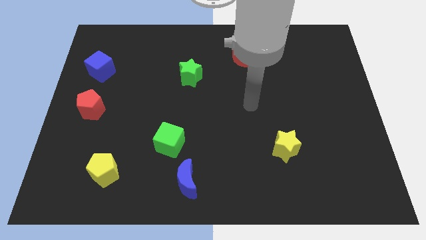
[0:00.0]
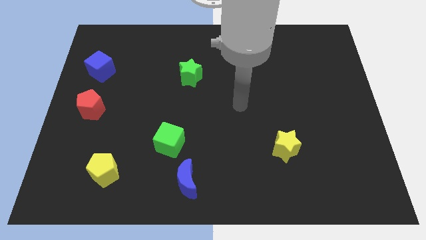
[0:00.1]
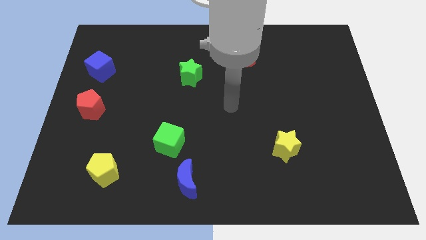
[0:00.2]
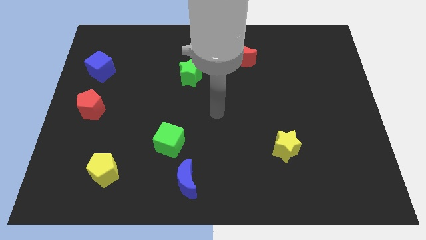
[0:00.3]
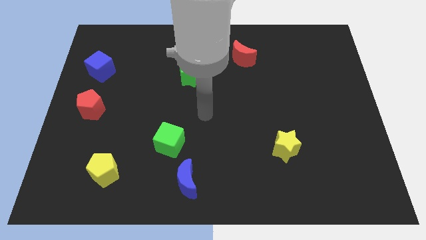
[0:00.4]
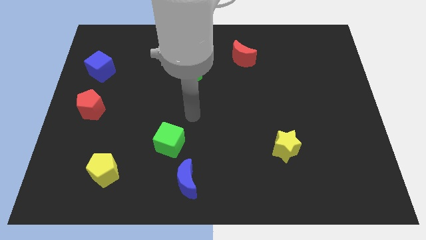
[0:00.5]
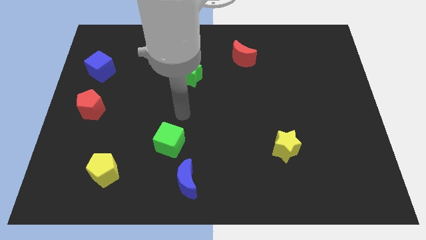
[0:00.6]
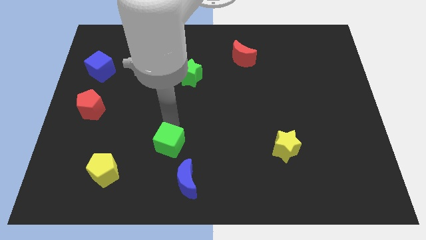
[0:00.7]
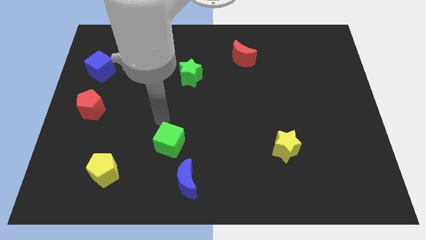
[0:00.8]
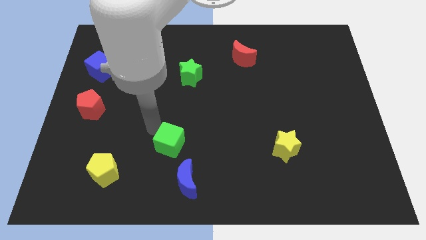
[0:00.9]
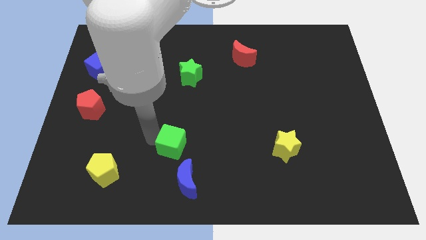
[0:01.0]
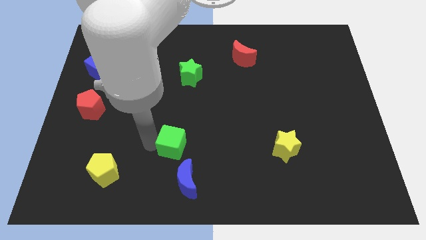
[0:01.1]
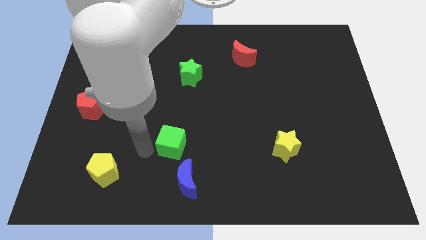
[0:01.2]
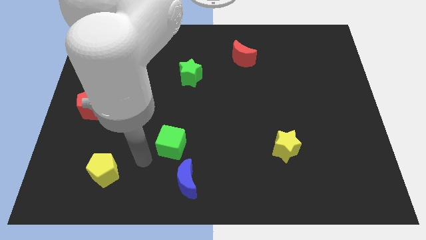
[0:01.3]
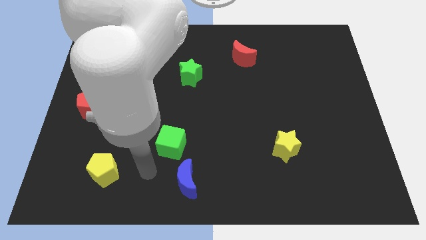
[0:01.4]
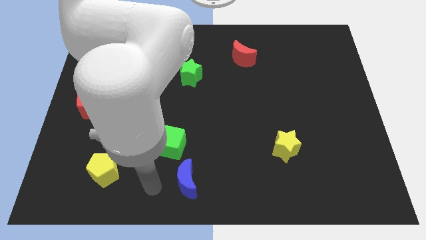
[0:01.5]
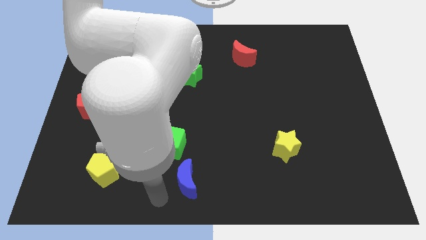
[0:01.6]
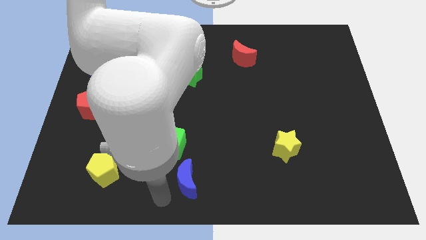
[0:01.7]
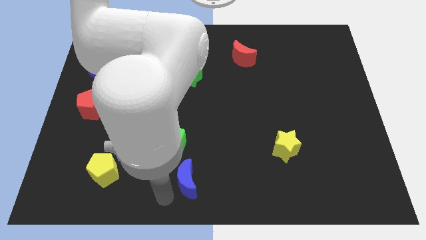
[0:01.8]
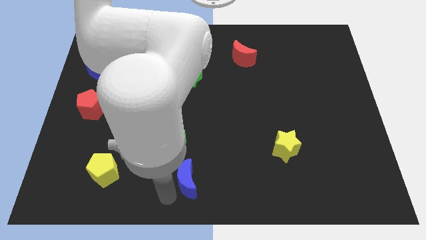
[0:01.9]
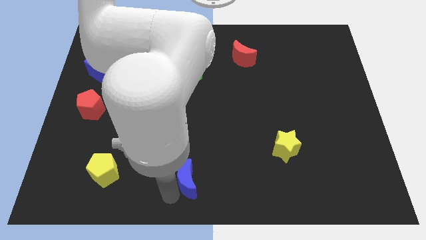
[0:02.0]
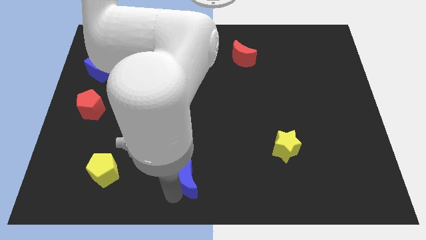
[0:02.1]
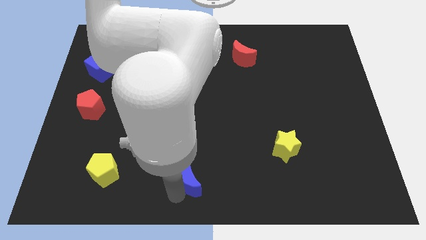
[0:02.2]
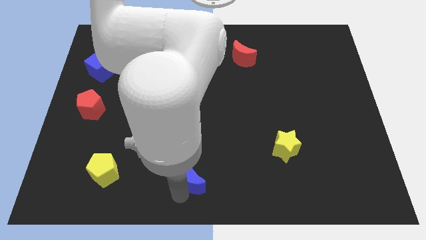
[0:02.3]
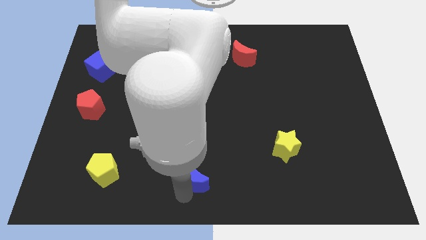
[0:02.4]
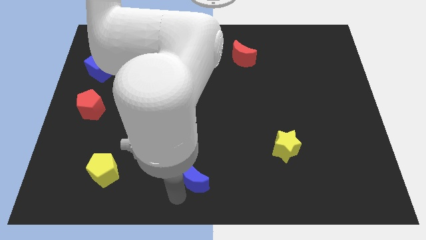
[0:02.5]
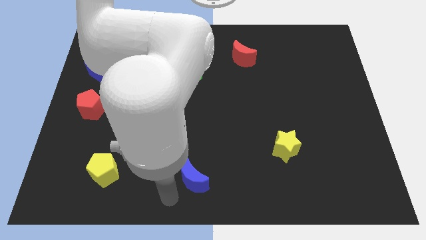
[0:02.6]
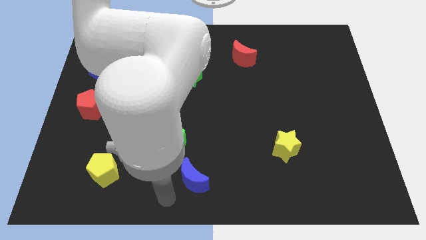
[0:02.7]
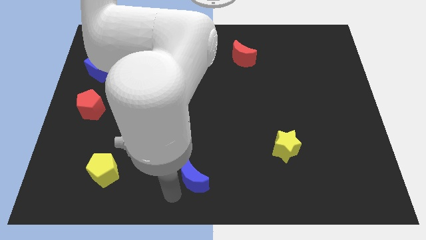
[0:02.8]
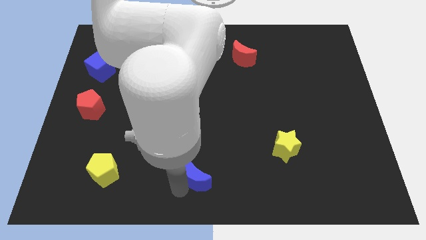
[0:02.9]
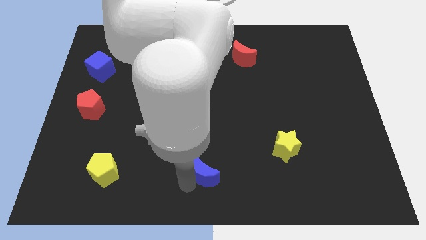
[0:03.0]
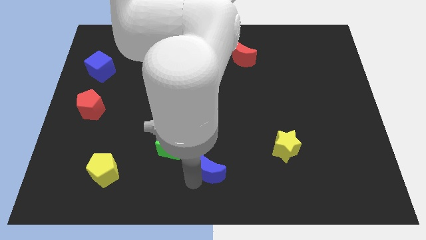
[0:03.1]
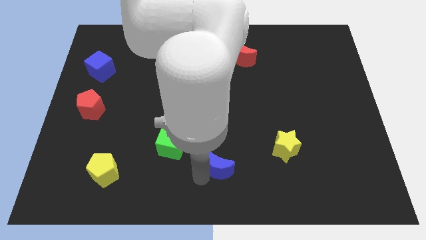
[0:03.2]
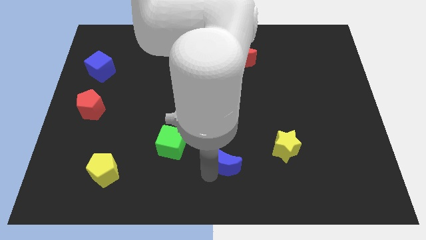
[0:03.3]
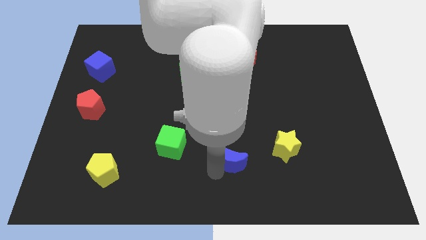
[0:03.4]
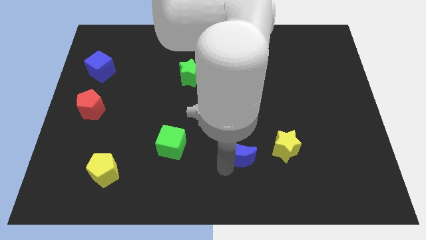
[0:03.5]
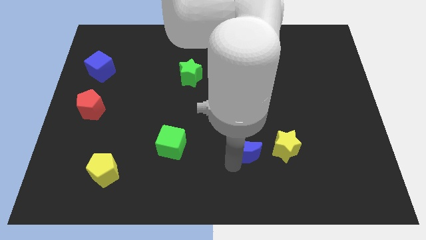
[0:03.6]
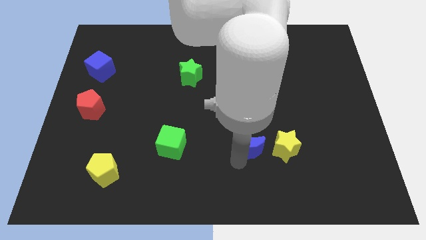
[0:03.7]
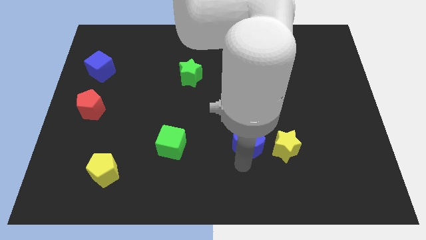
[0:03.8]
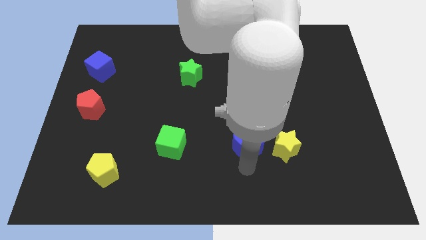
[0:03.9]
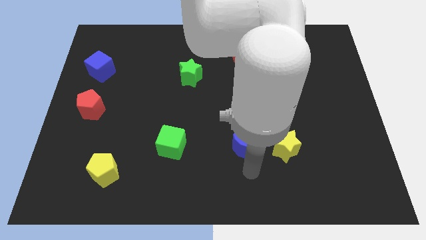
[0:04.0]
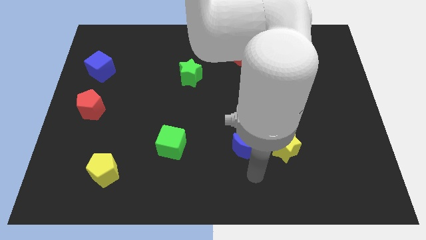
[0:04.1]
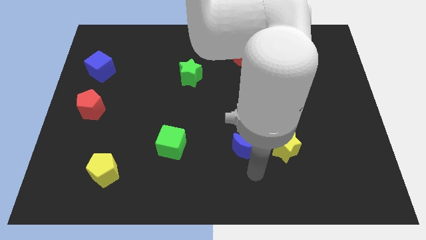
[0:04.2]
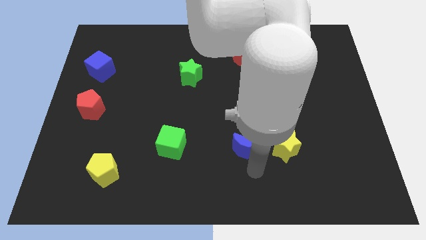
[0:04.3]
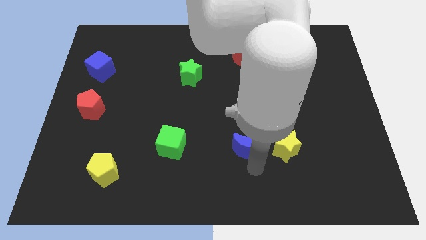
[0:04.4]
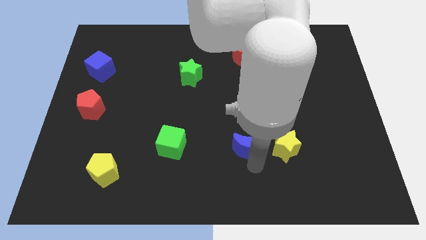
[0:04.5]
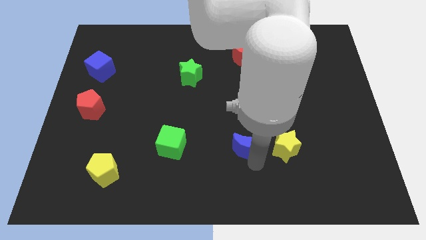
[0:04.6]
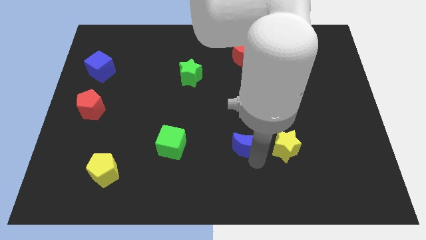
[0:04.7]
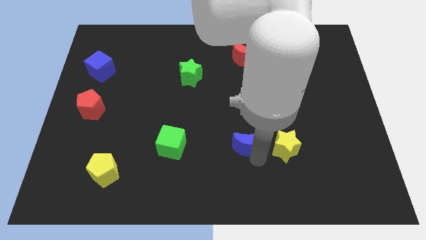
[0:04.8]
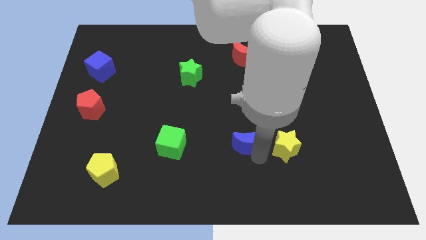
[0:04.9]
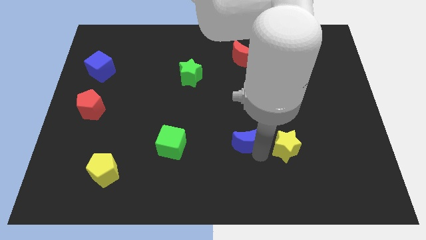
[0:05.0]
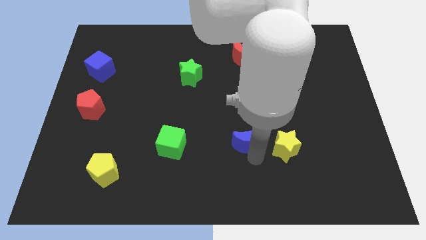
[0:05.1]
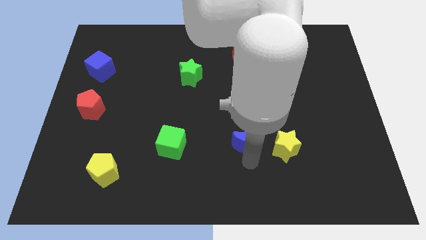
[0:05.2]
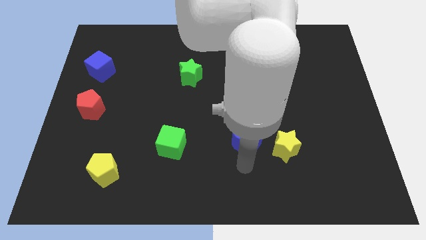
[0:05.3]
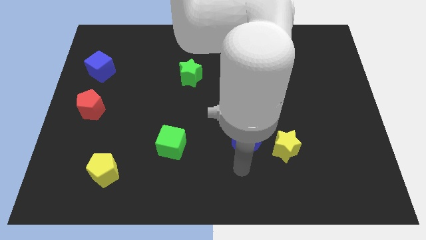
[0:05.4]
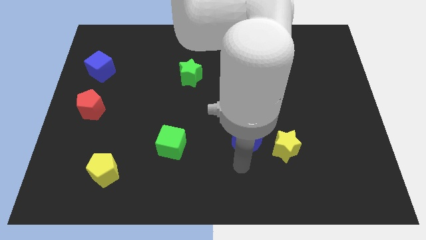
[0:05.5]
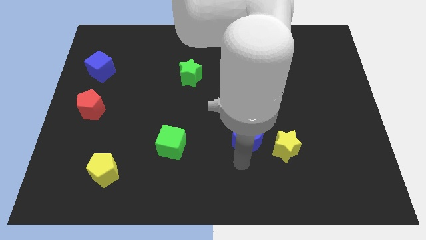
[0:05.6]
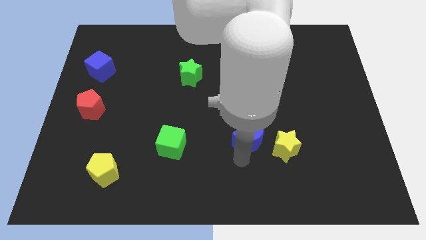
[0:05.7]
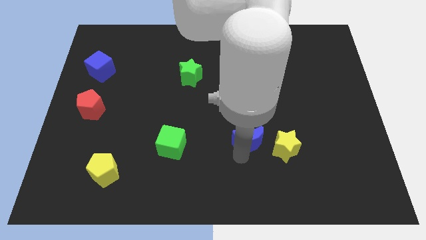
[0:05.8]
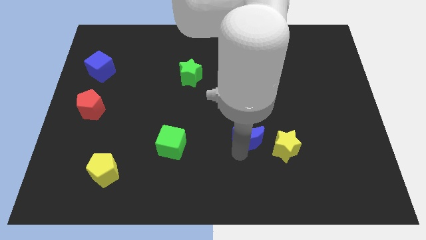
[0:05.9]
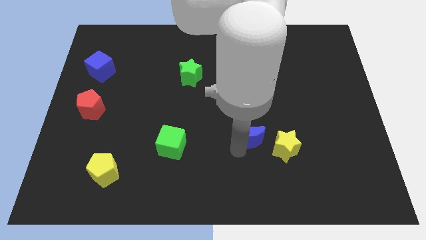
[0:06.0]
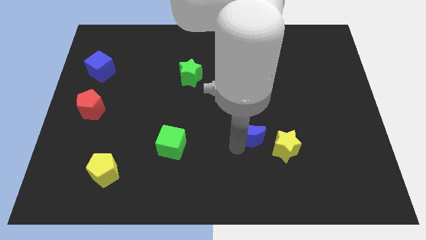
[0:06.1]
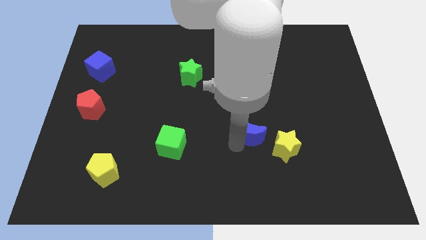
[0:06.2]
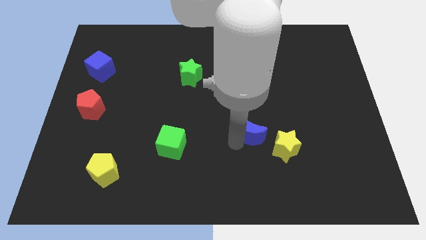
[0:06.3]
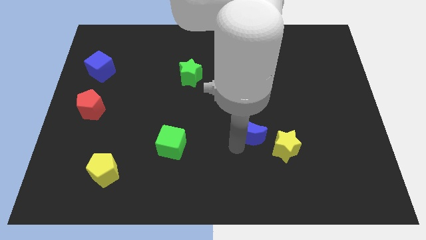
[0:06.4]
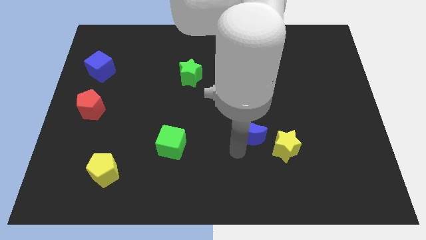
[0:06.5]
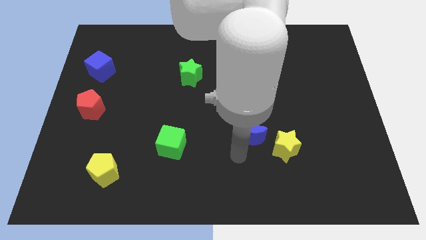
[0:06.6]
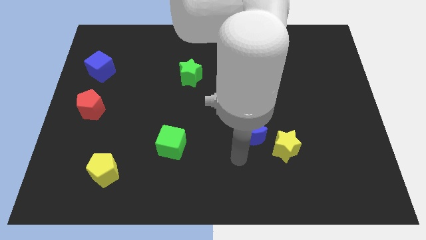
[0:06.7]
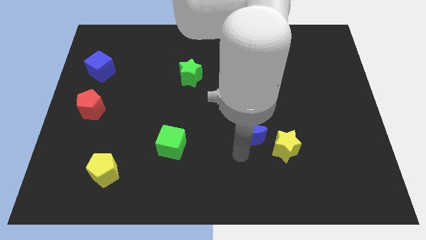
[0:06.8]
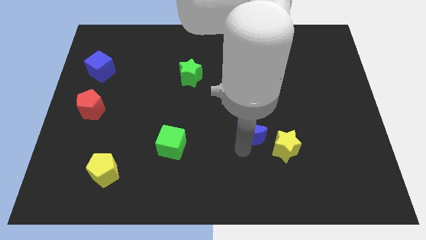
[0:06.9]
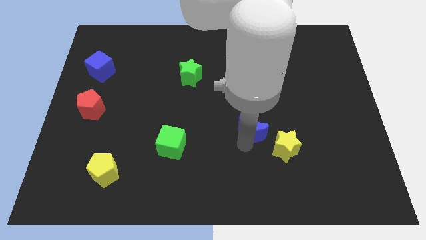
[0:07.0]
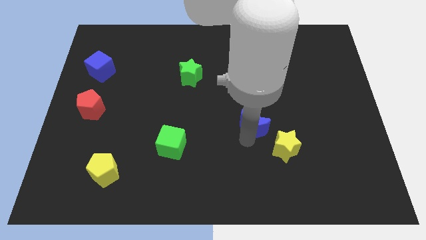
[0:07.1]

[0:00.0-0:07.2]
slide the blue moon upwards and then to the right

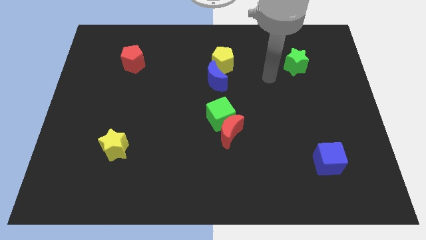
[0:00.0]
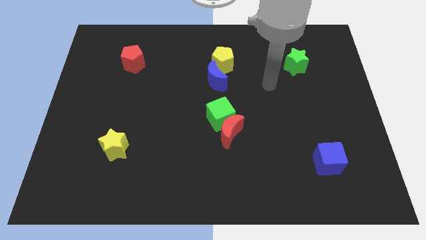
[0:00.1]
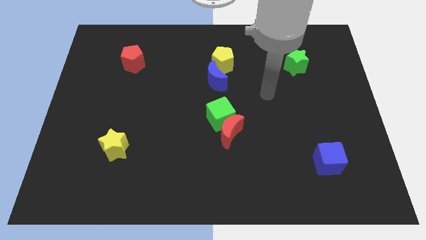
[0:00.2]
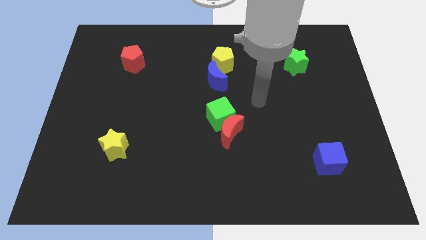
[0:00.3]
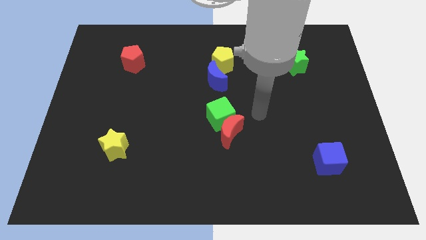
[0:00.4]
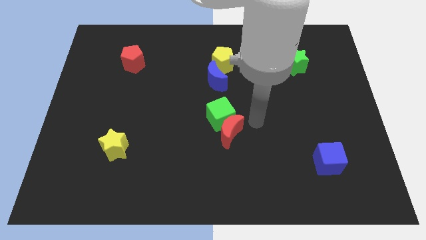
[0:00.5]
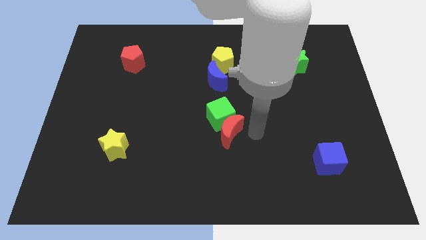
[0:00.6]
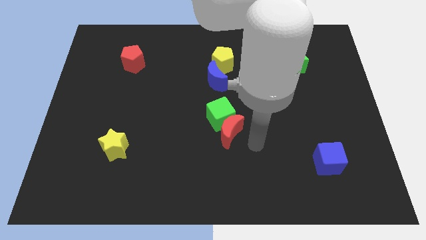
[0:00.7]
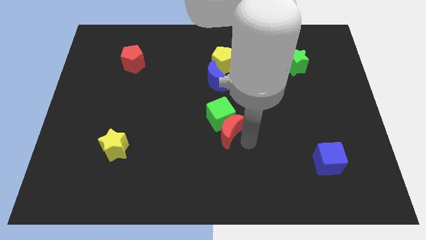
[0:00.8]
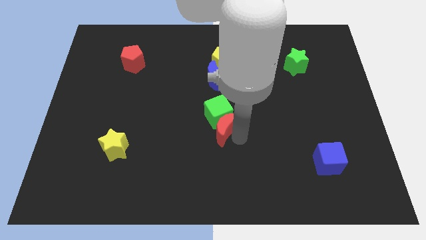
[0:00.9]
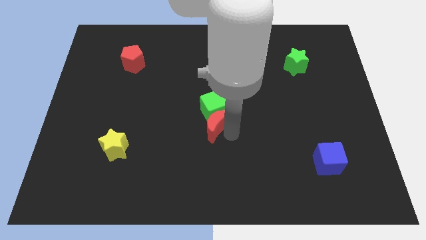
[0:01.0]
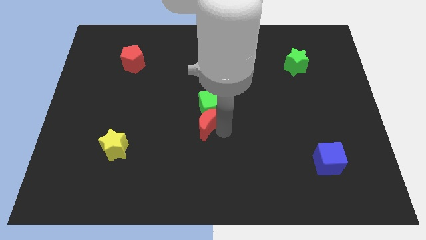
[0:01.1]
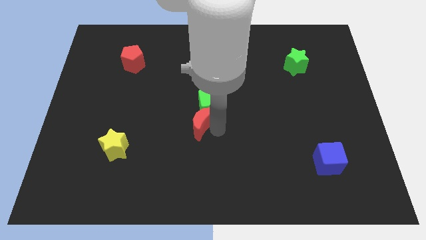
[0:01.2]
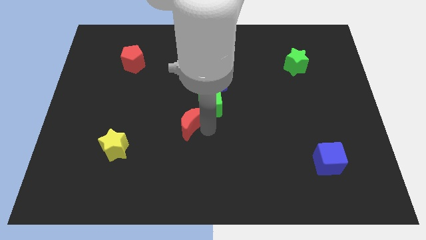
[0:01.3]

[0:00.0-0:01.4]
move the red moon upwards and to the left a bit
